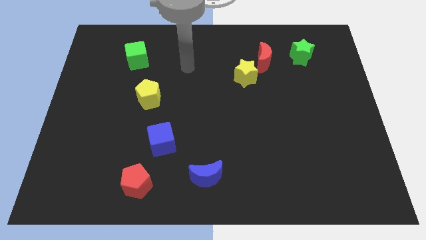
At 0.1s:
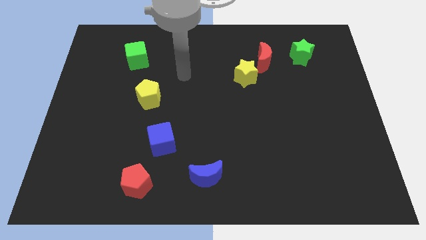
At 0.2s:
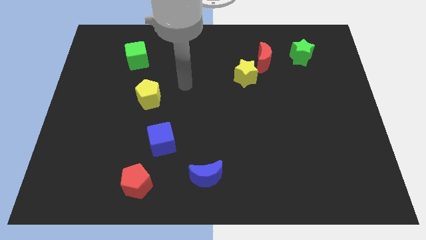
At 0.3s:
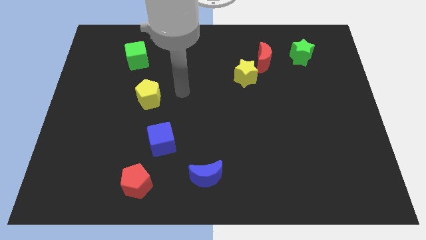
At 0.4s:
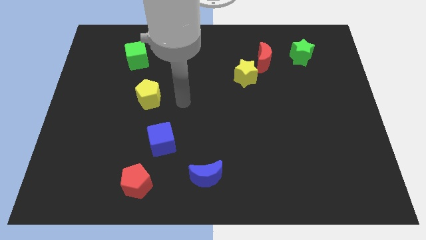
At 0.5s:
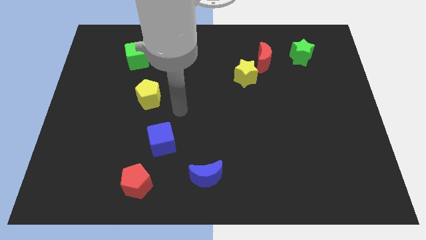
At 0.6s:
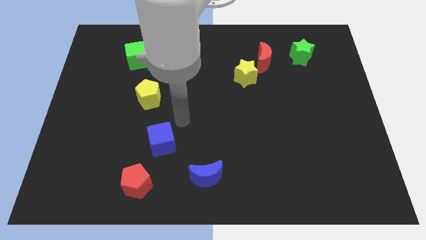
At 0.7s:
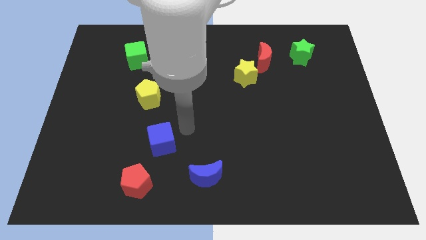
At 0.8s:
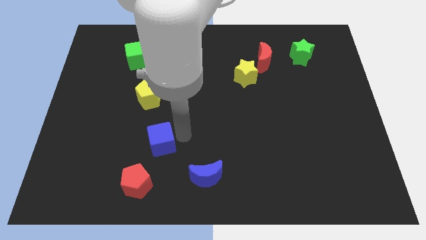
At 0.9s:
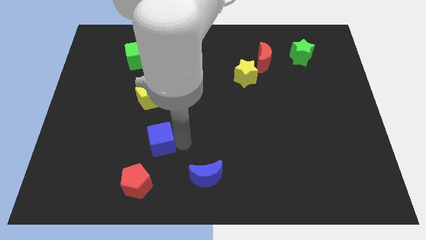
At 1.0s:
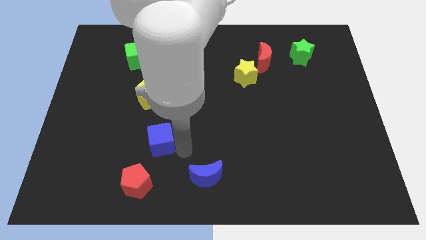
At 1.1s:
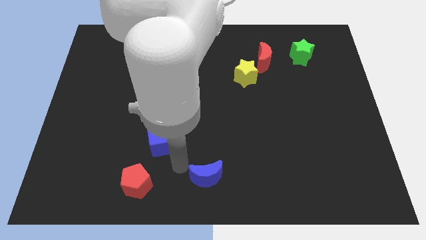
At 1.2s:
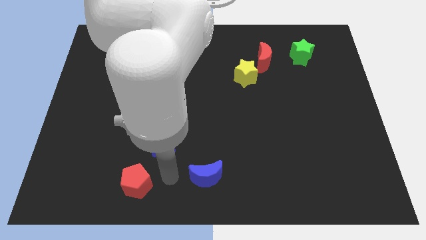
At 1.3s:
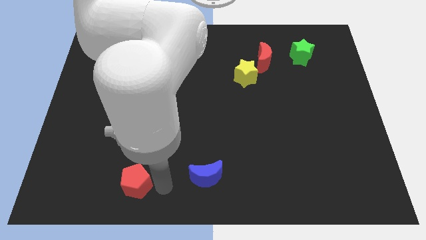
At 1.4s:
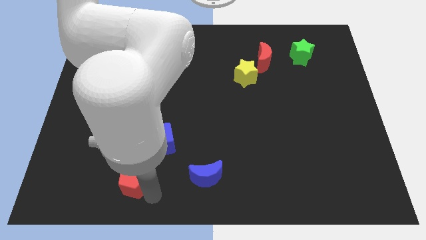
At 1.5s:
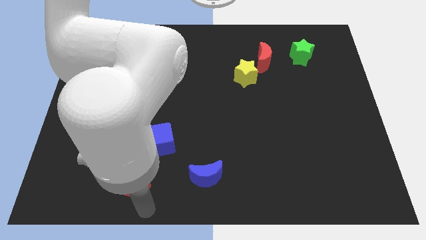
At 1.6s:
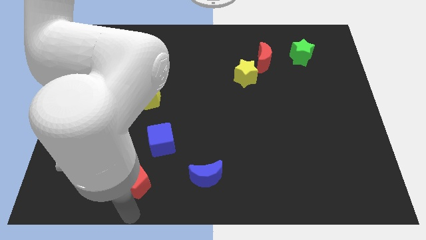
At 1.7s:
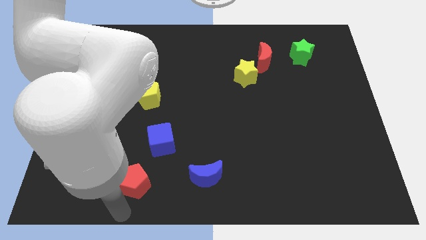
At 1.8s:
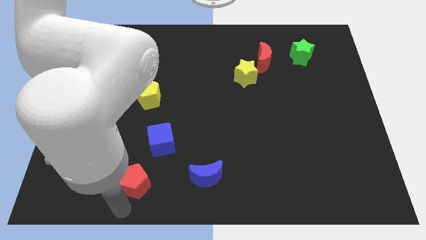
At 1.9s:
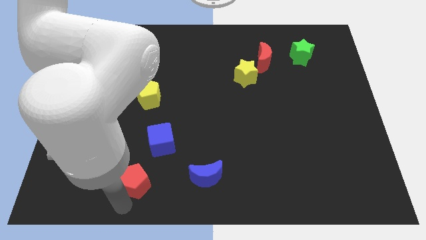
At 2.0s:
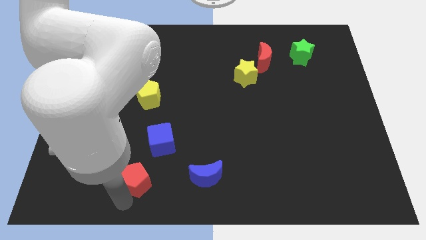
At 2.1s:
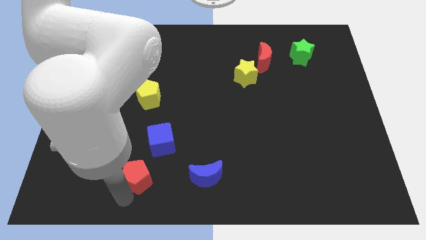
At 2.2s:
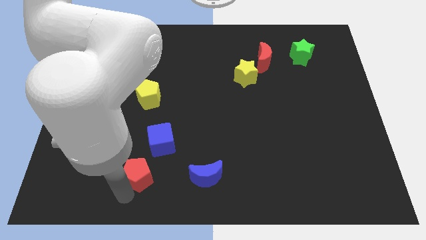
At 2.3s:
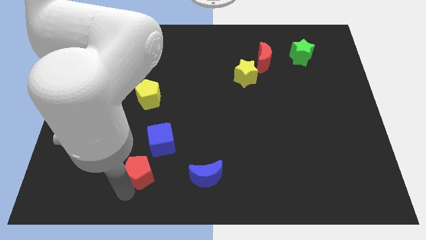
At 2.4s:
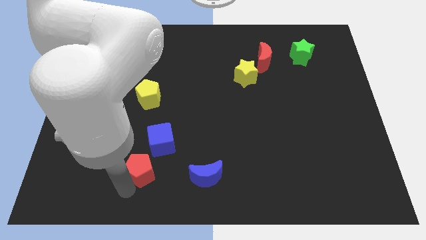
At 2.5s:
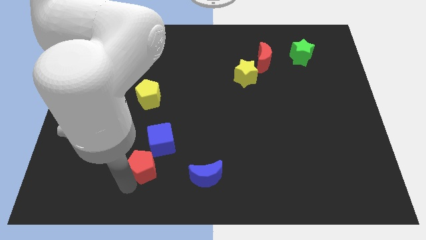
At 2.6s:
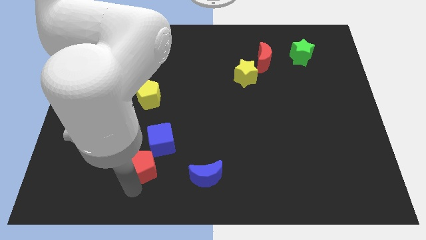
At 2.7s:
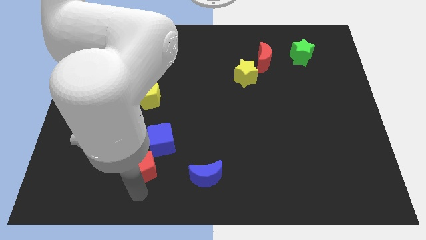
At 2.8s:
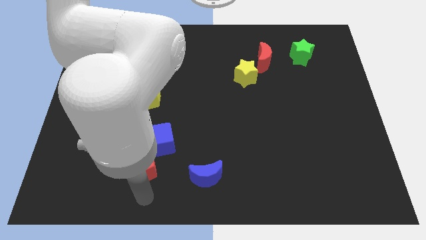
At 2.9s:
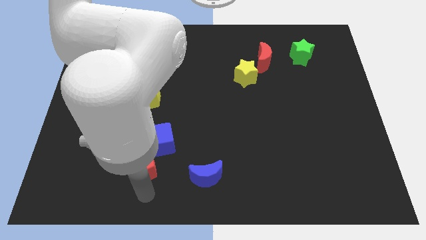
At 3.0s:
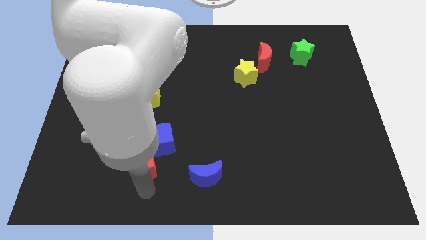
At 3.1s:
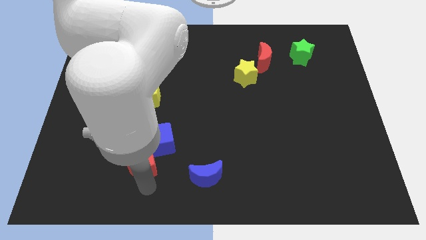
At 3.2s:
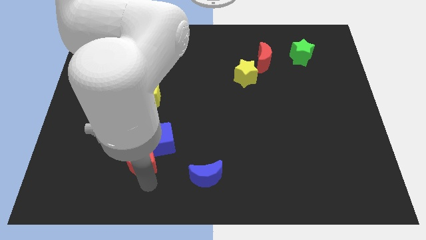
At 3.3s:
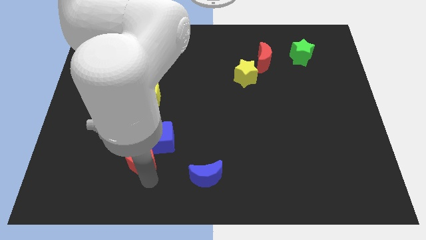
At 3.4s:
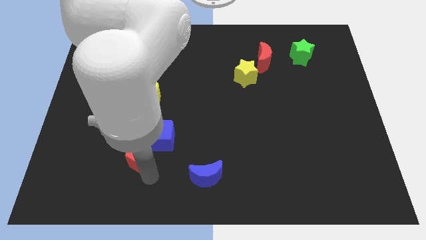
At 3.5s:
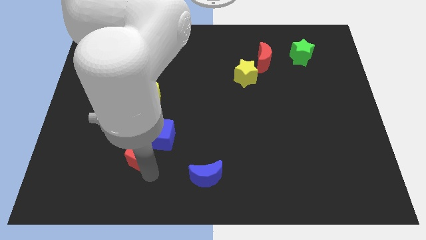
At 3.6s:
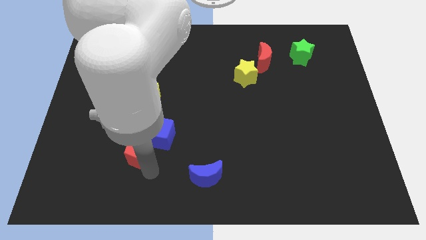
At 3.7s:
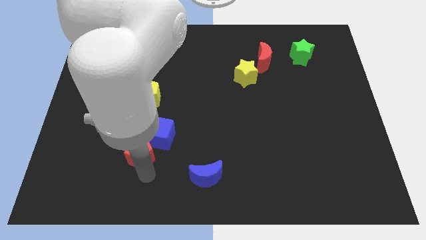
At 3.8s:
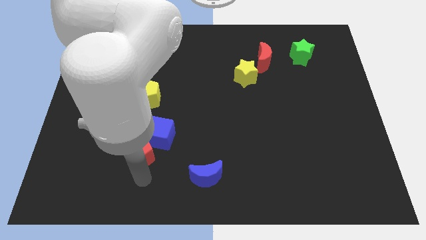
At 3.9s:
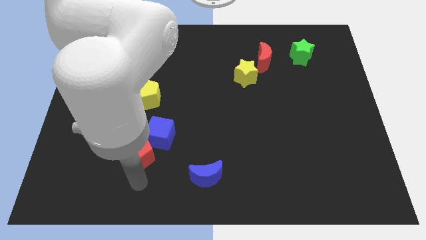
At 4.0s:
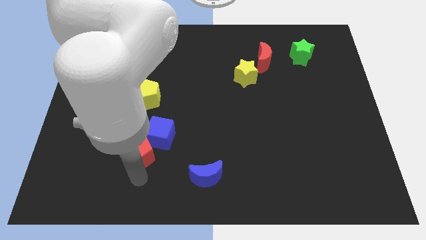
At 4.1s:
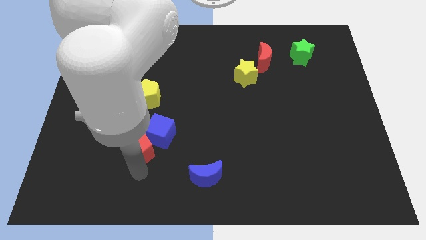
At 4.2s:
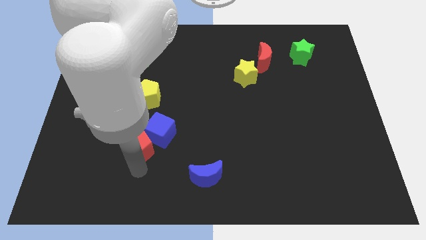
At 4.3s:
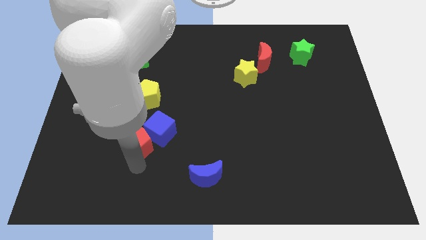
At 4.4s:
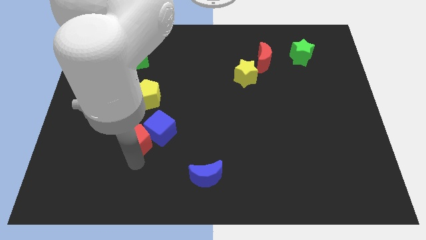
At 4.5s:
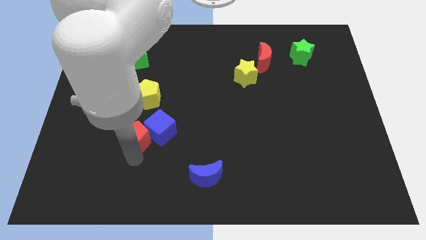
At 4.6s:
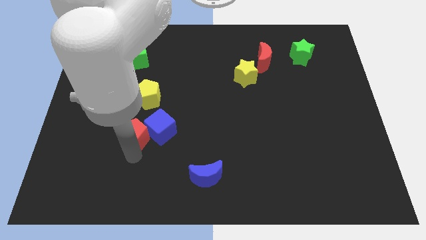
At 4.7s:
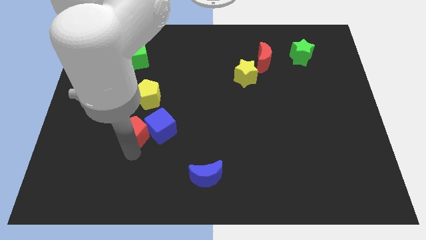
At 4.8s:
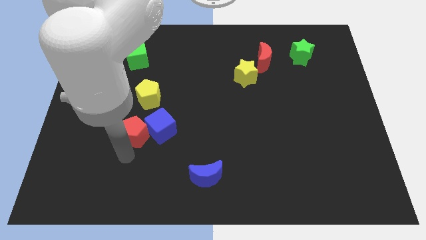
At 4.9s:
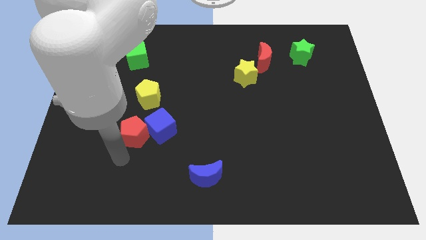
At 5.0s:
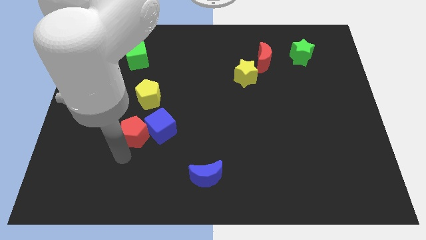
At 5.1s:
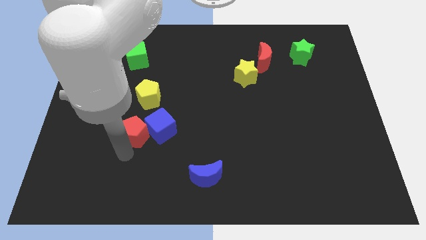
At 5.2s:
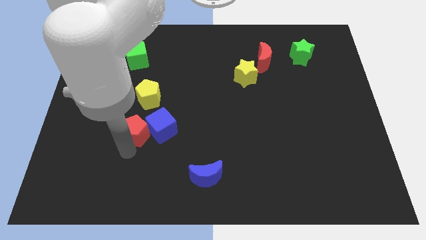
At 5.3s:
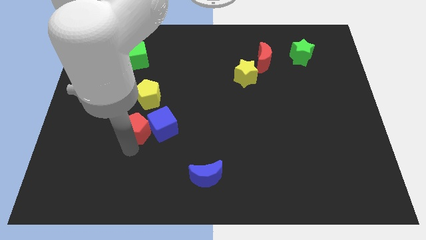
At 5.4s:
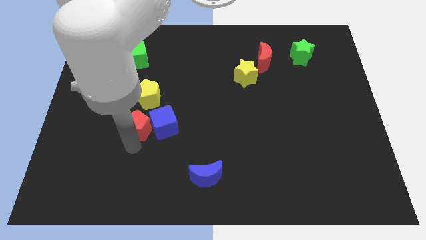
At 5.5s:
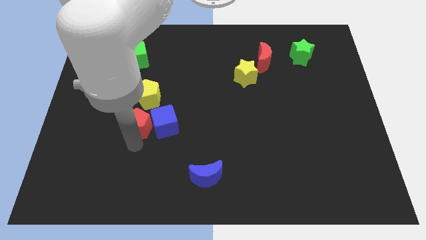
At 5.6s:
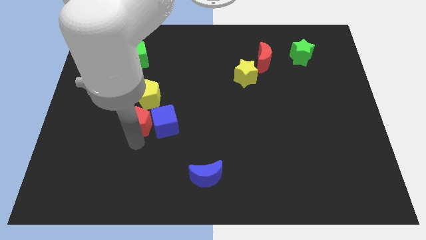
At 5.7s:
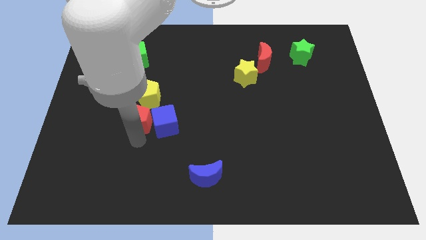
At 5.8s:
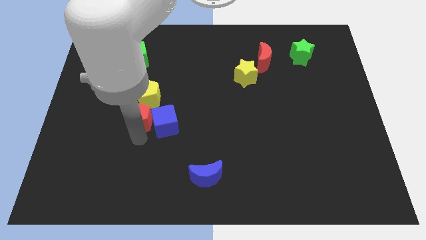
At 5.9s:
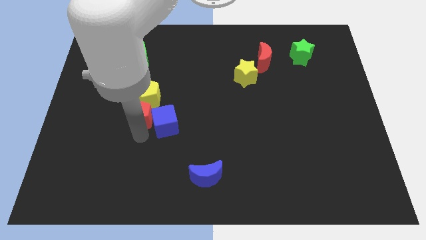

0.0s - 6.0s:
put the red pentagon next to the yellow pentagon
